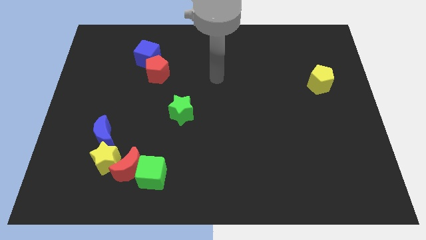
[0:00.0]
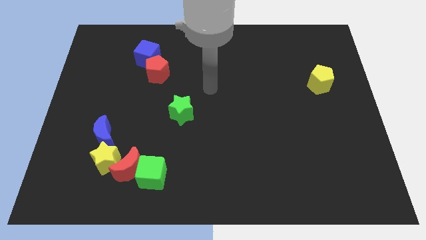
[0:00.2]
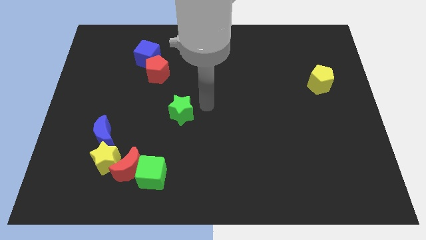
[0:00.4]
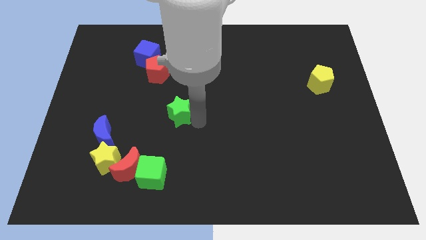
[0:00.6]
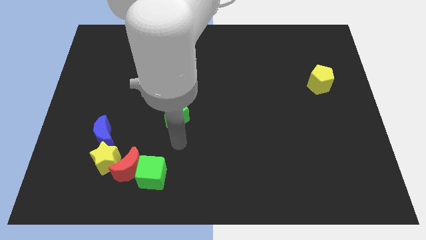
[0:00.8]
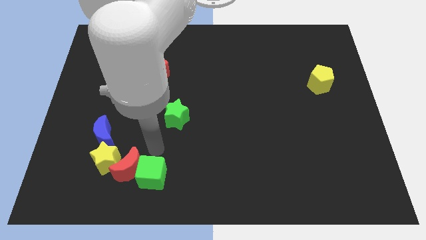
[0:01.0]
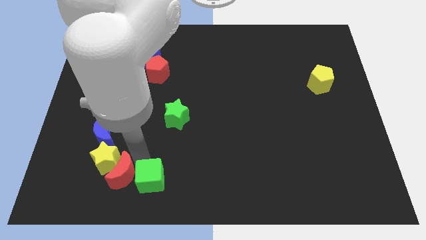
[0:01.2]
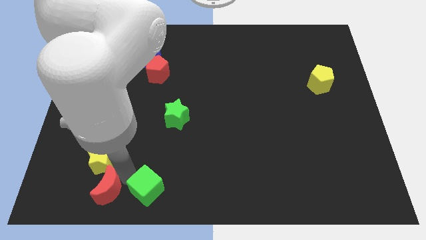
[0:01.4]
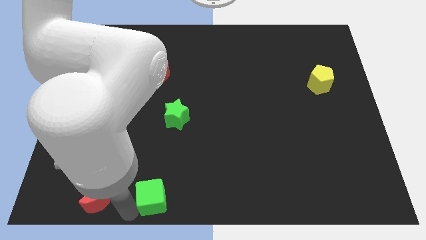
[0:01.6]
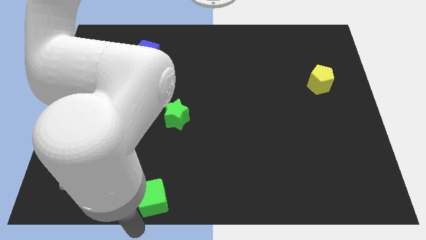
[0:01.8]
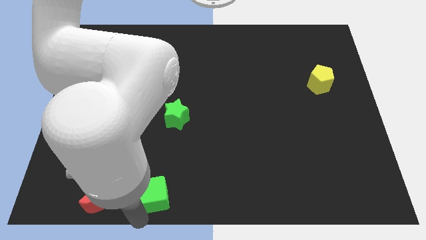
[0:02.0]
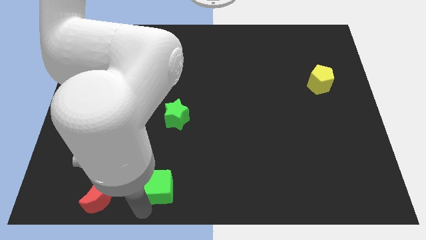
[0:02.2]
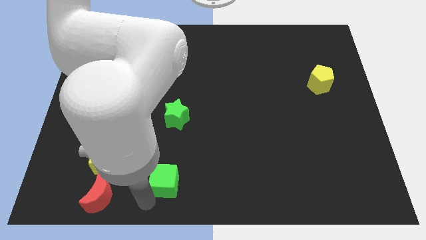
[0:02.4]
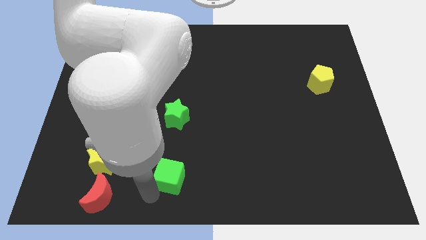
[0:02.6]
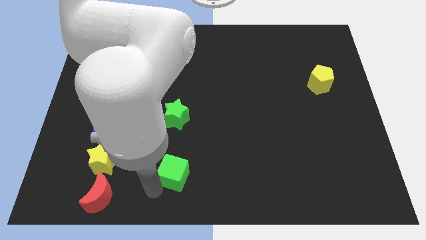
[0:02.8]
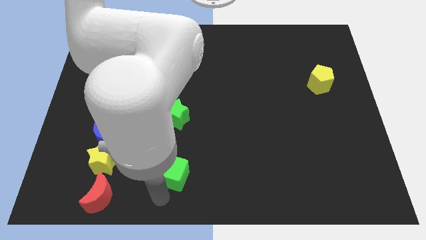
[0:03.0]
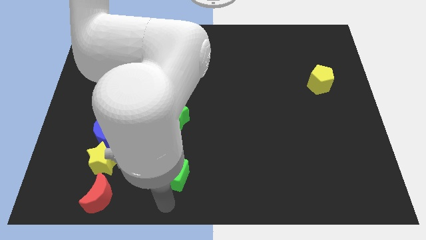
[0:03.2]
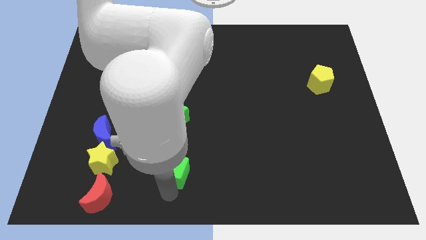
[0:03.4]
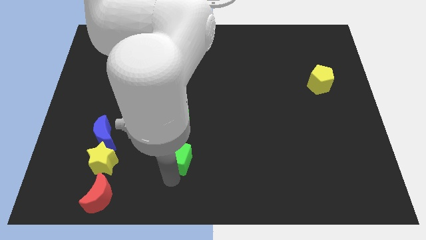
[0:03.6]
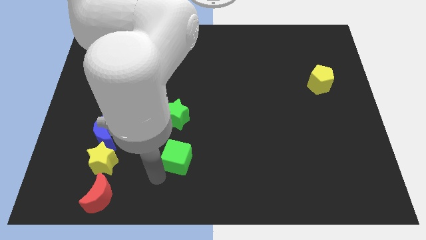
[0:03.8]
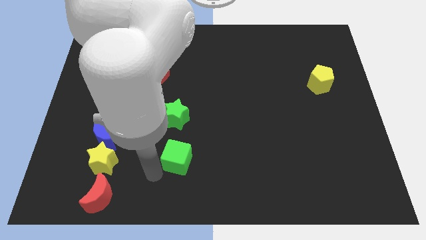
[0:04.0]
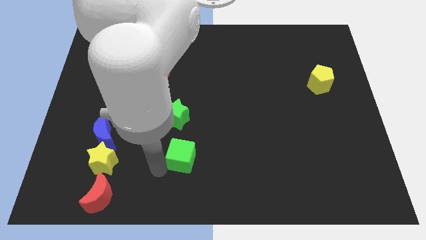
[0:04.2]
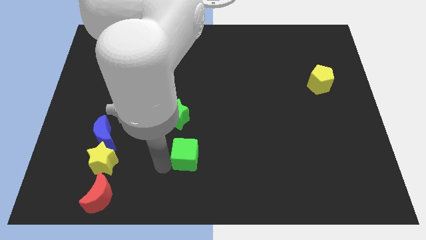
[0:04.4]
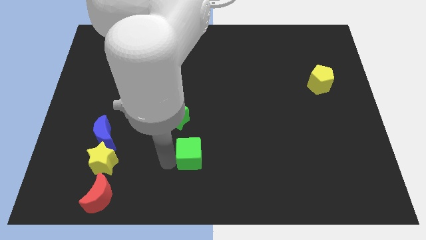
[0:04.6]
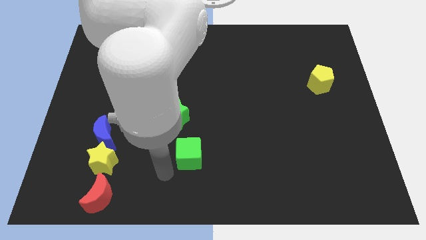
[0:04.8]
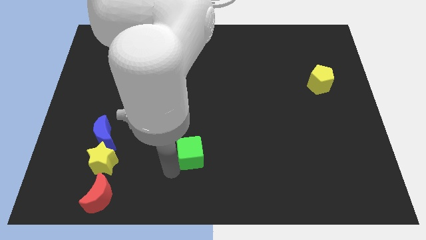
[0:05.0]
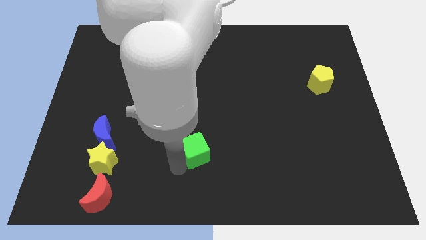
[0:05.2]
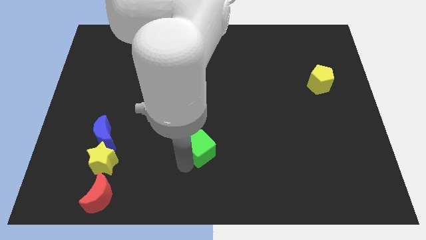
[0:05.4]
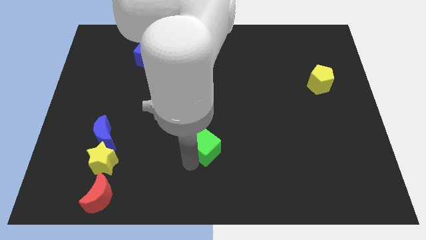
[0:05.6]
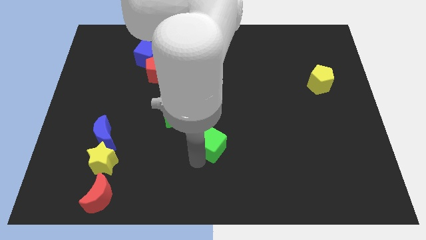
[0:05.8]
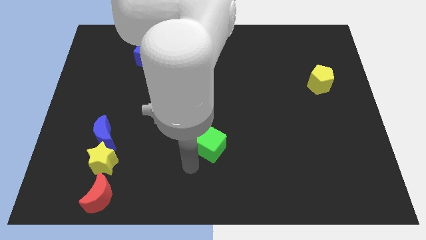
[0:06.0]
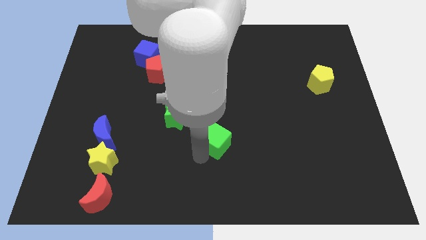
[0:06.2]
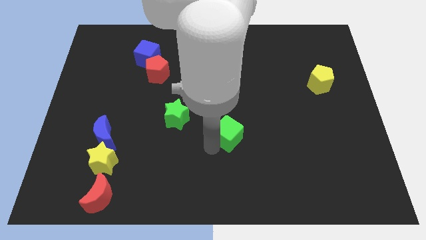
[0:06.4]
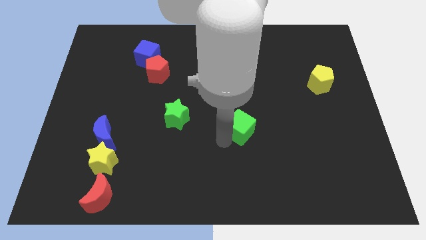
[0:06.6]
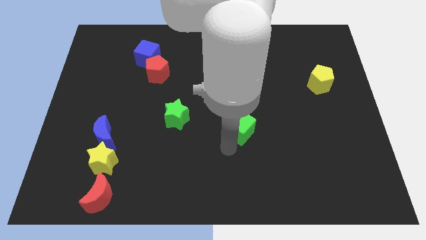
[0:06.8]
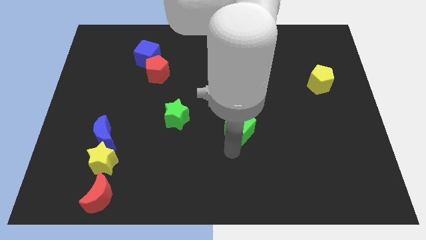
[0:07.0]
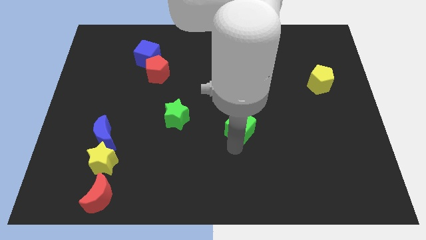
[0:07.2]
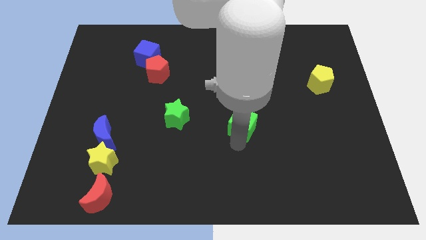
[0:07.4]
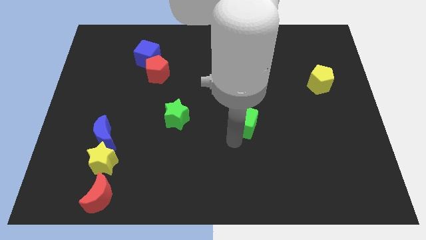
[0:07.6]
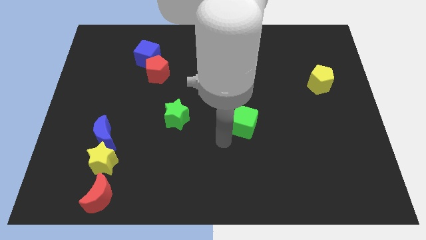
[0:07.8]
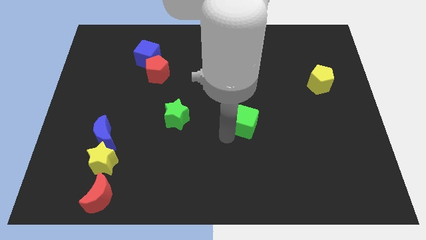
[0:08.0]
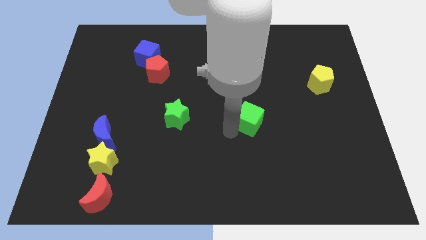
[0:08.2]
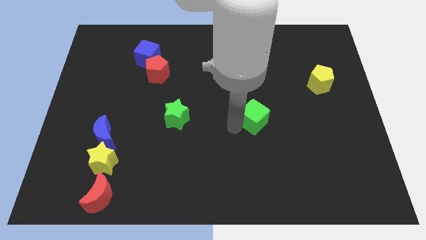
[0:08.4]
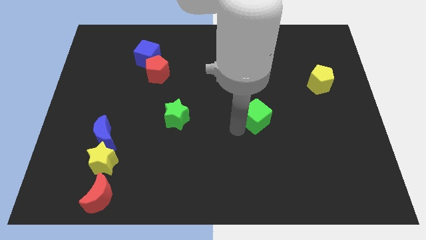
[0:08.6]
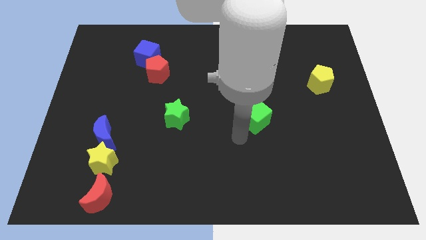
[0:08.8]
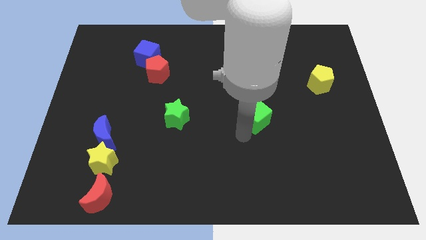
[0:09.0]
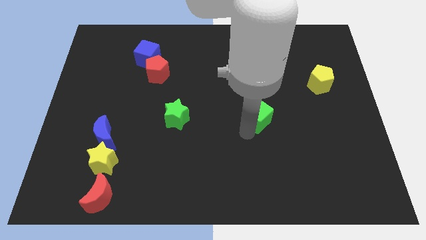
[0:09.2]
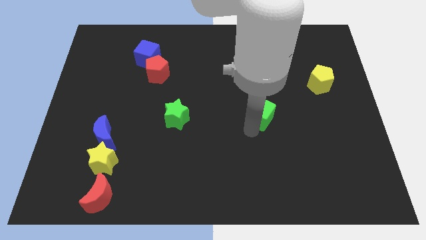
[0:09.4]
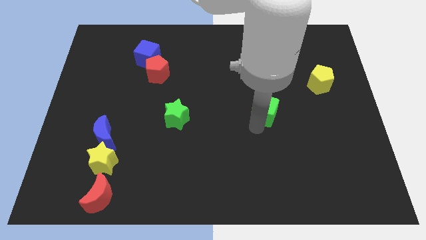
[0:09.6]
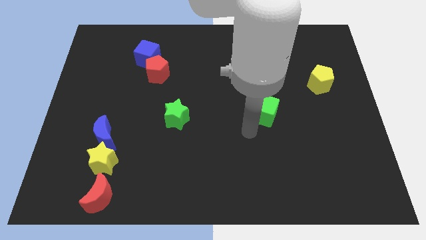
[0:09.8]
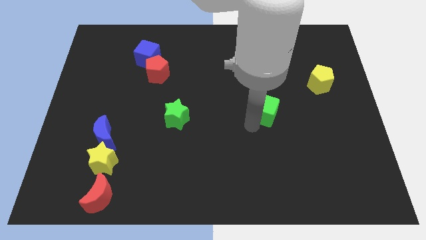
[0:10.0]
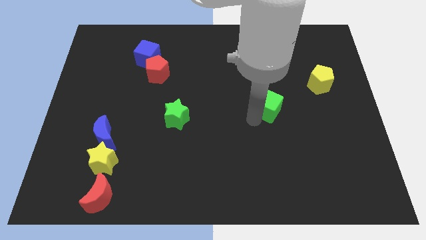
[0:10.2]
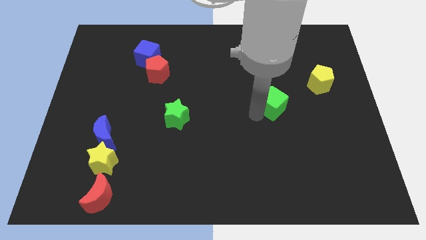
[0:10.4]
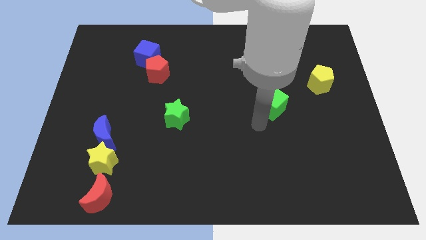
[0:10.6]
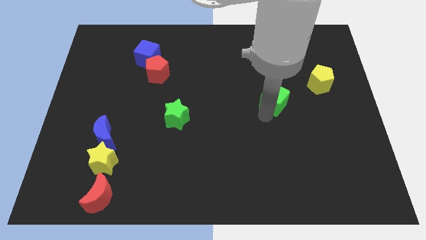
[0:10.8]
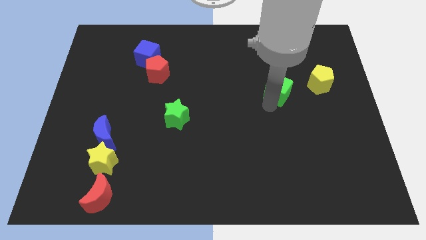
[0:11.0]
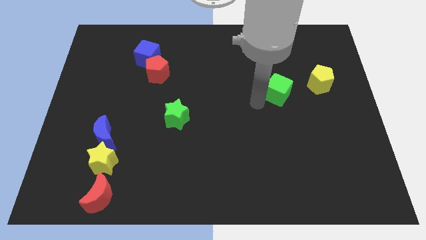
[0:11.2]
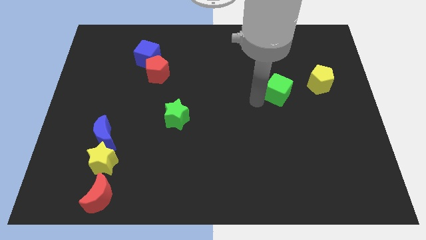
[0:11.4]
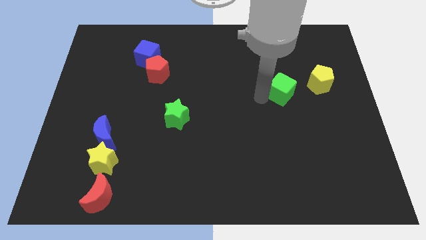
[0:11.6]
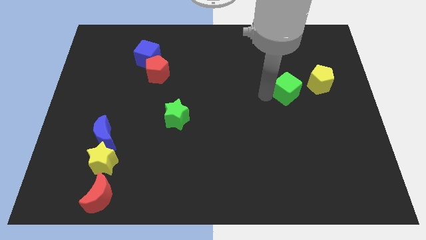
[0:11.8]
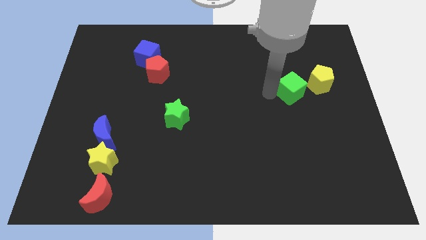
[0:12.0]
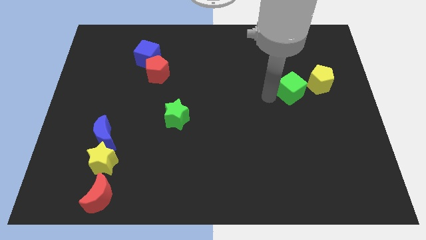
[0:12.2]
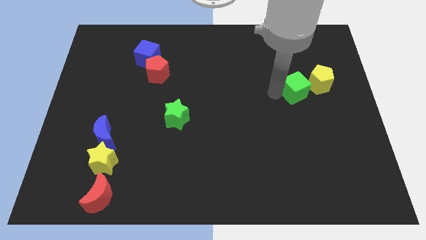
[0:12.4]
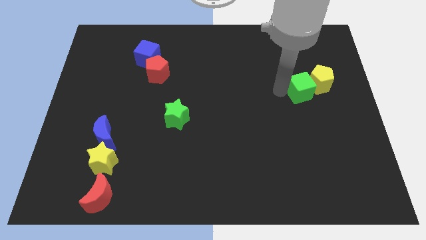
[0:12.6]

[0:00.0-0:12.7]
move the green cube to the yellow pentagon

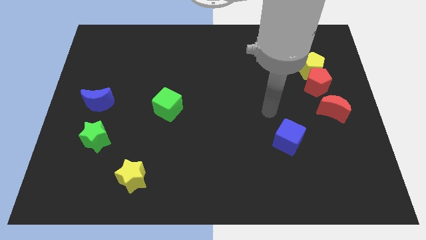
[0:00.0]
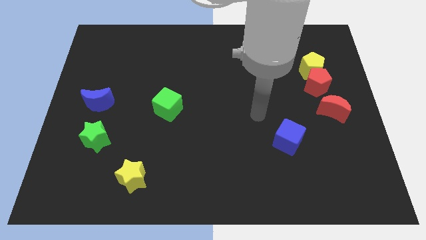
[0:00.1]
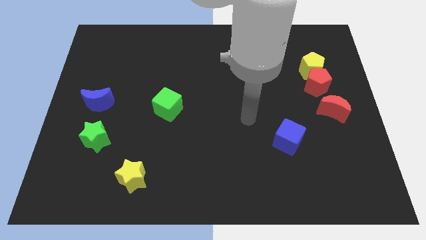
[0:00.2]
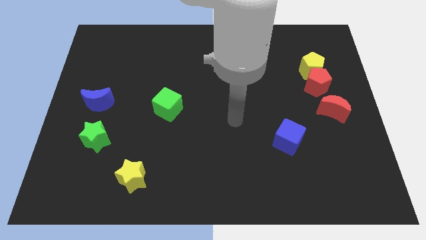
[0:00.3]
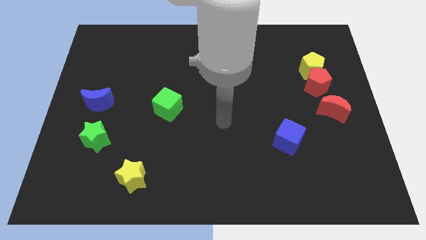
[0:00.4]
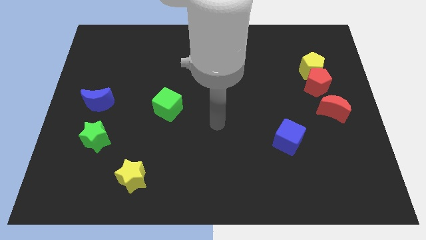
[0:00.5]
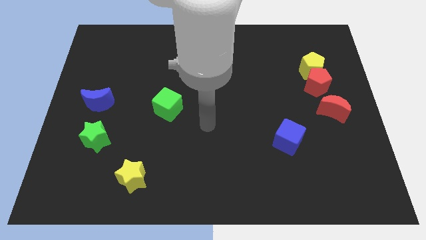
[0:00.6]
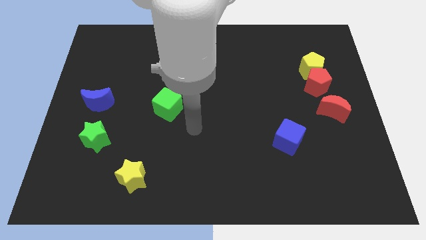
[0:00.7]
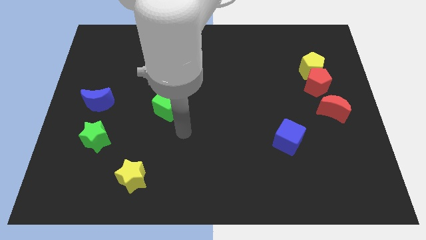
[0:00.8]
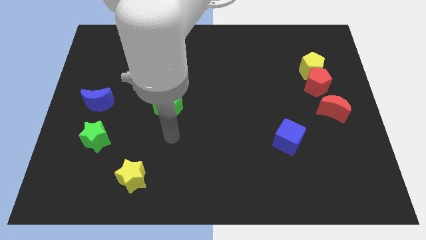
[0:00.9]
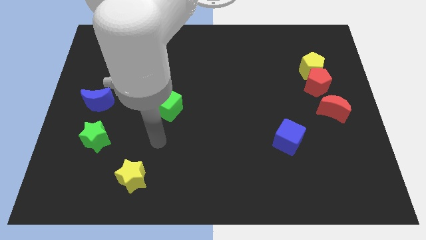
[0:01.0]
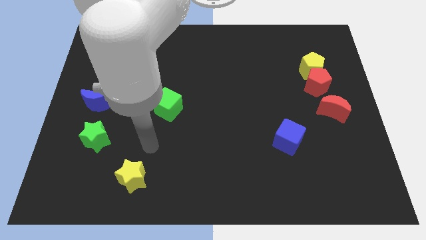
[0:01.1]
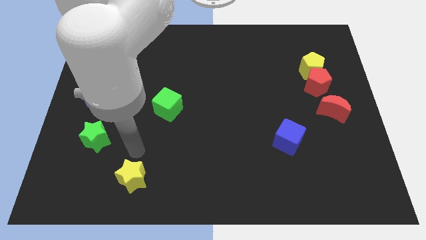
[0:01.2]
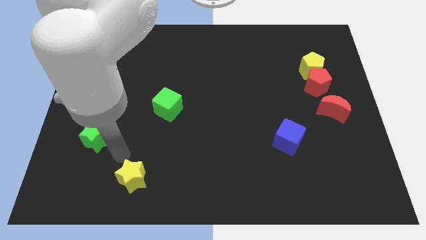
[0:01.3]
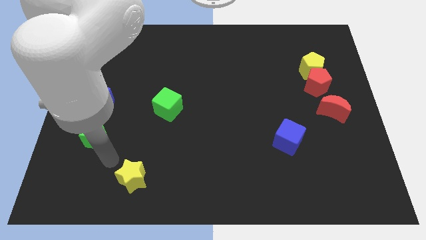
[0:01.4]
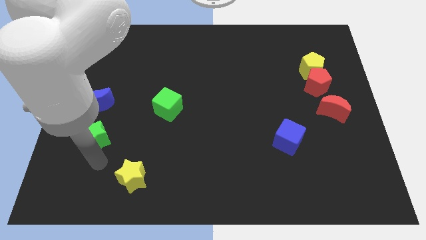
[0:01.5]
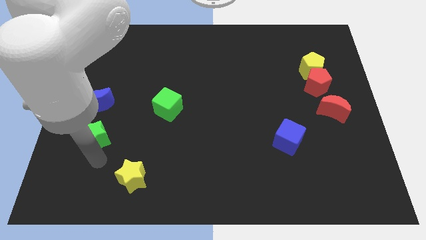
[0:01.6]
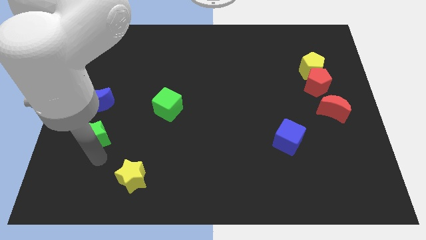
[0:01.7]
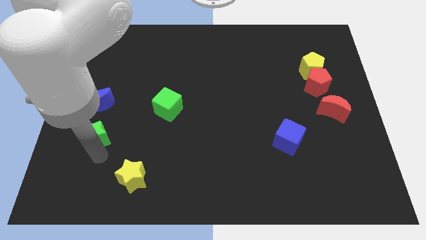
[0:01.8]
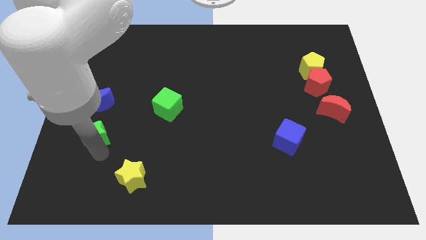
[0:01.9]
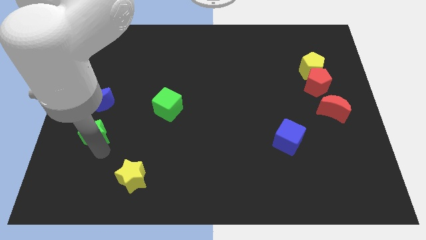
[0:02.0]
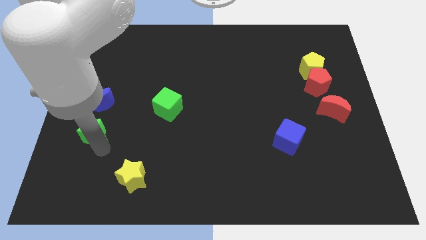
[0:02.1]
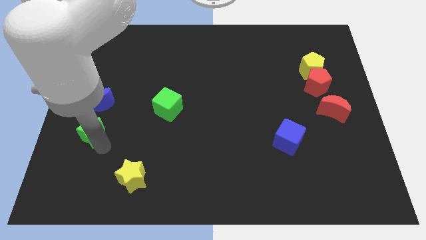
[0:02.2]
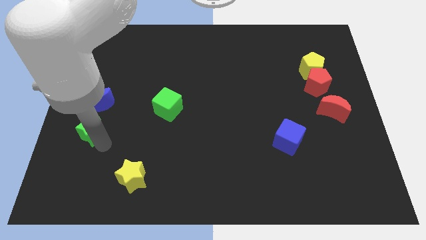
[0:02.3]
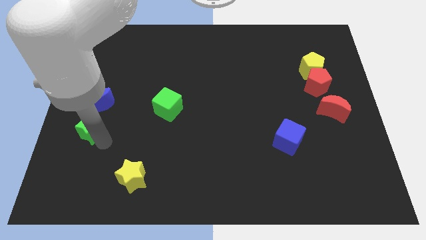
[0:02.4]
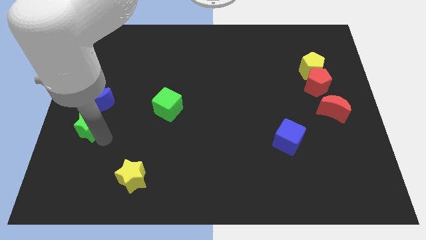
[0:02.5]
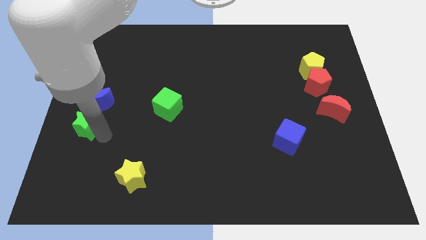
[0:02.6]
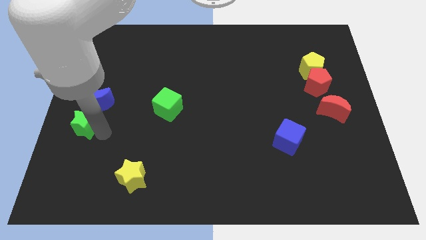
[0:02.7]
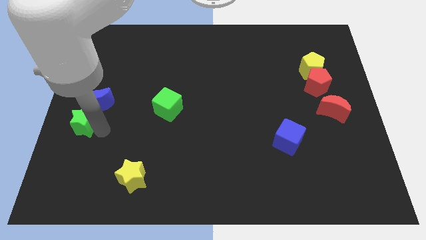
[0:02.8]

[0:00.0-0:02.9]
move the green star close to the blue moon
